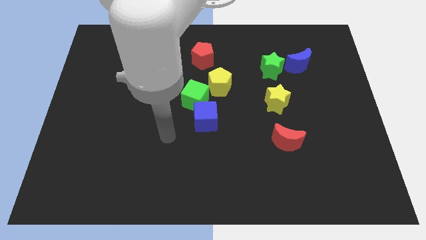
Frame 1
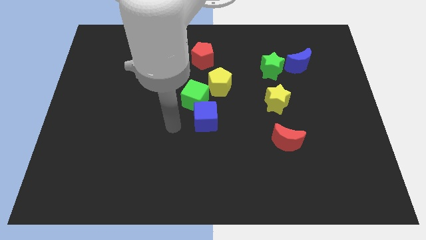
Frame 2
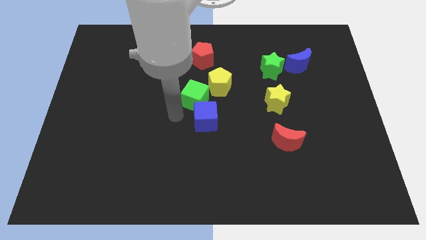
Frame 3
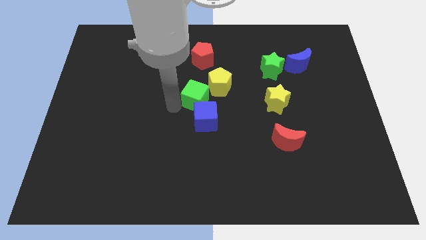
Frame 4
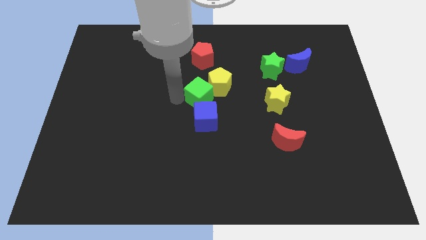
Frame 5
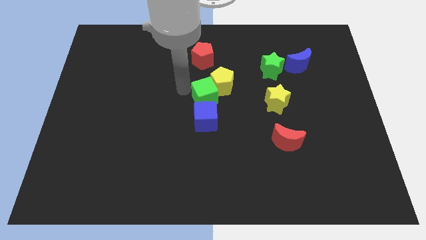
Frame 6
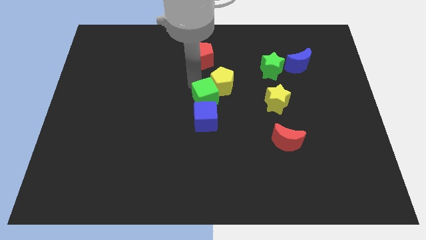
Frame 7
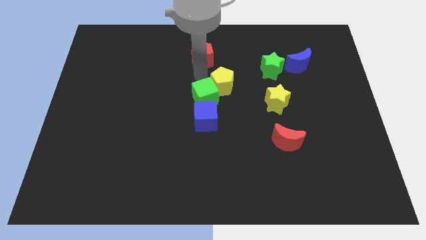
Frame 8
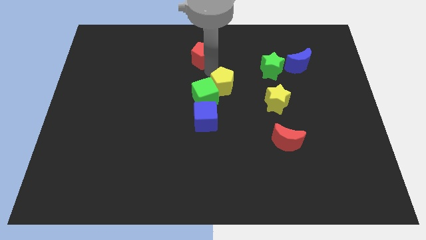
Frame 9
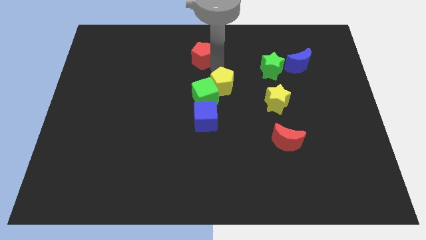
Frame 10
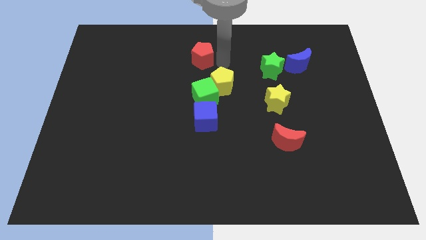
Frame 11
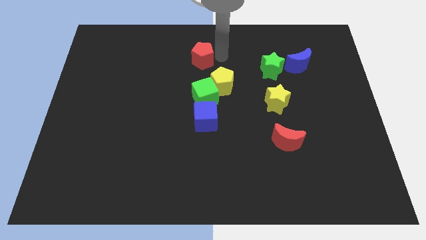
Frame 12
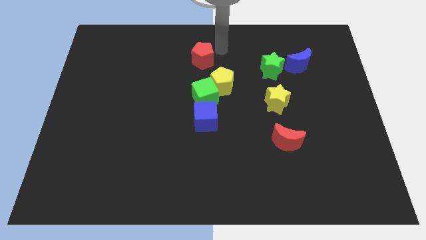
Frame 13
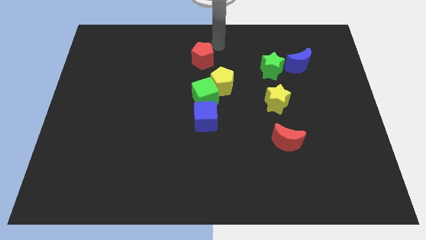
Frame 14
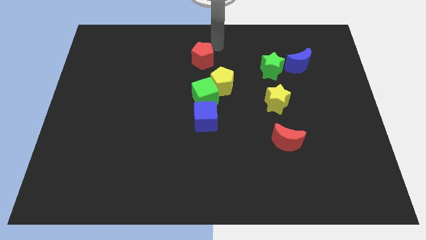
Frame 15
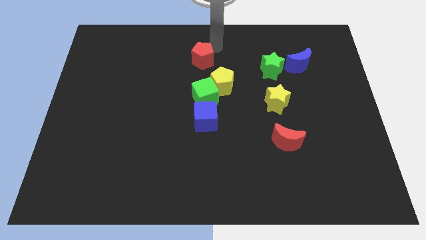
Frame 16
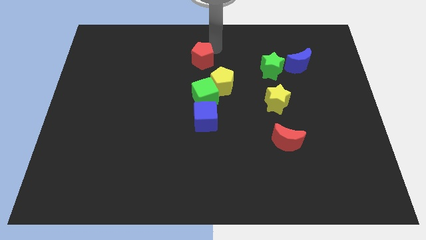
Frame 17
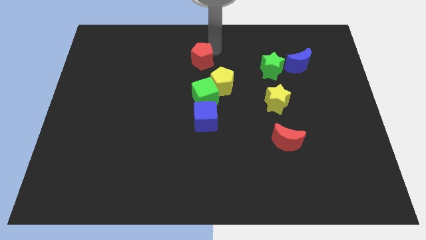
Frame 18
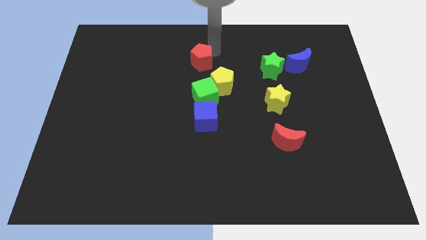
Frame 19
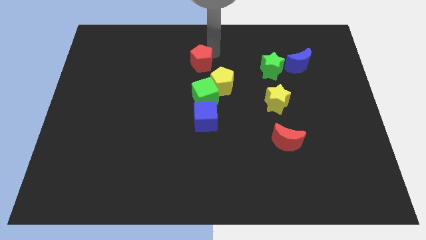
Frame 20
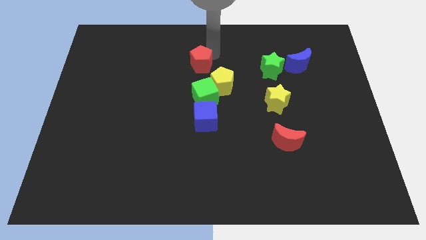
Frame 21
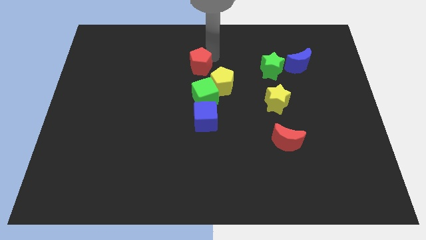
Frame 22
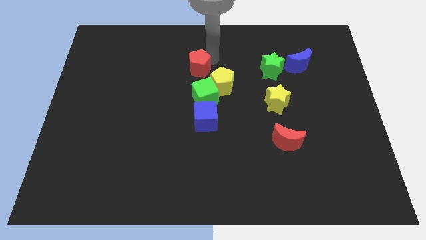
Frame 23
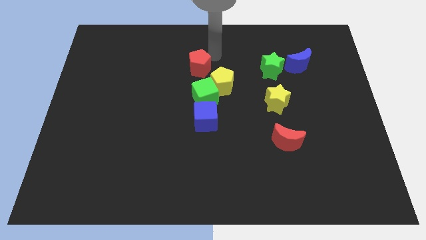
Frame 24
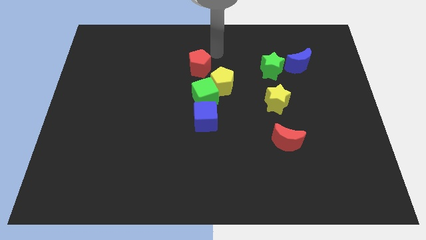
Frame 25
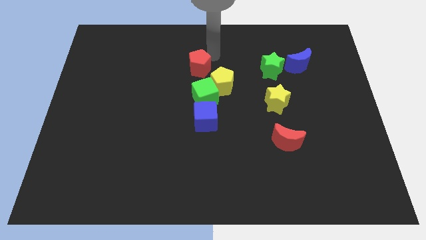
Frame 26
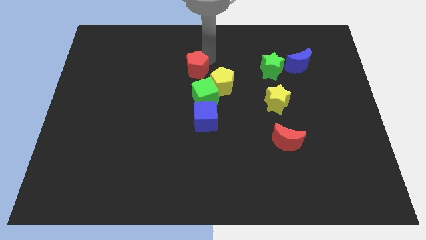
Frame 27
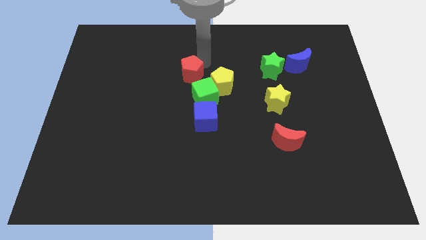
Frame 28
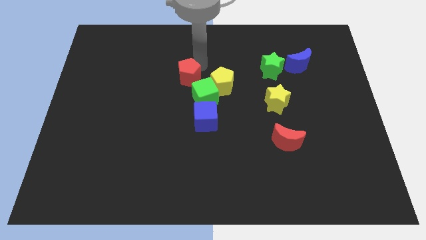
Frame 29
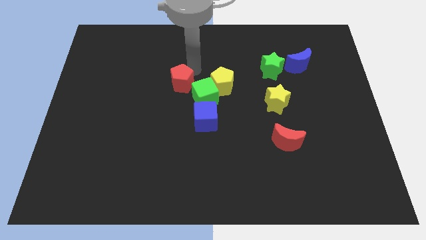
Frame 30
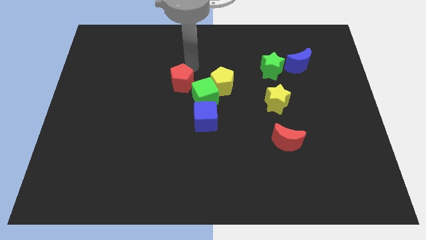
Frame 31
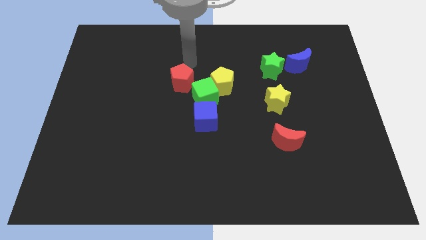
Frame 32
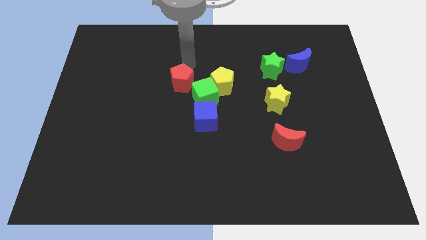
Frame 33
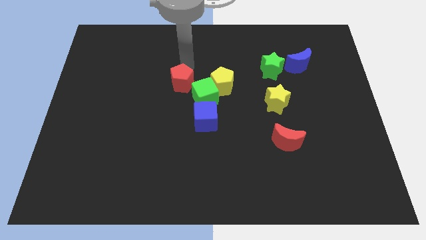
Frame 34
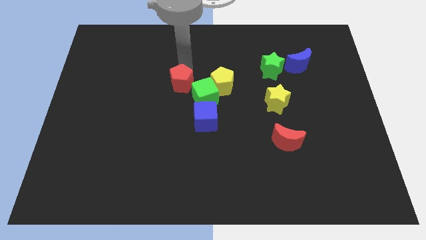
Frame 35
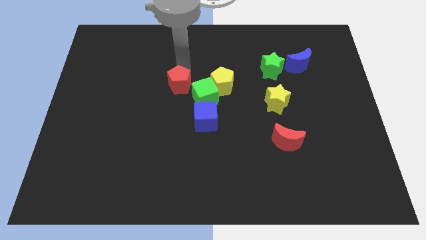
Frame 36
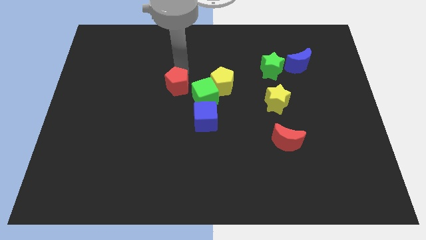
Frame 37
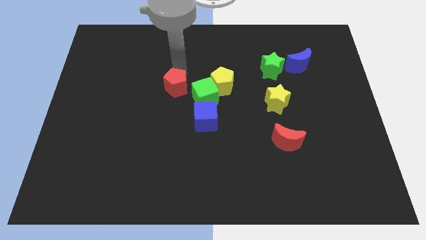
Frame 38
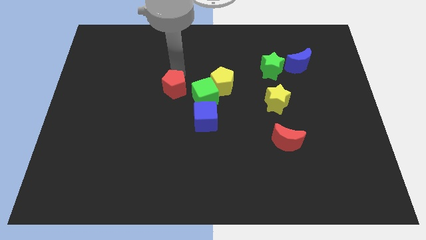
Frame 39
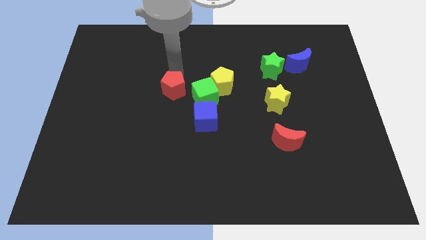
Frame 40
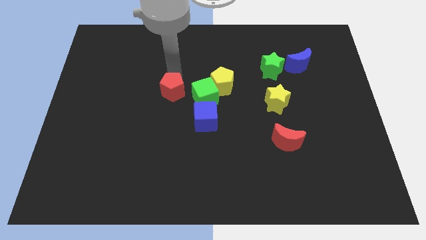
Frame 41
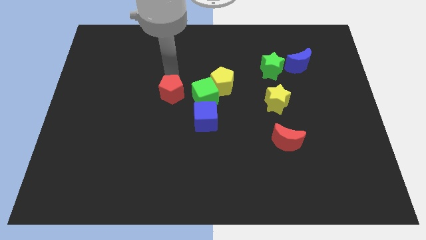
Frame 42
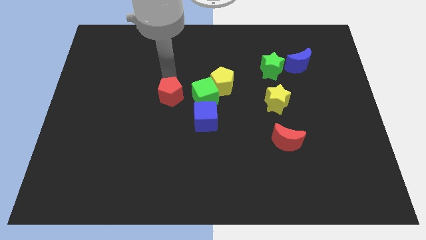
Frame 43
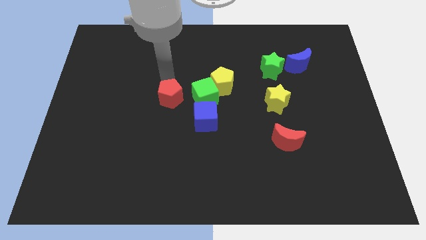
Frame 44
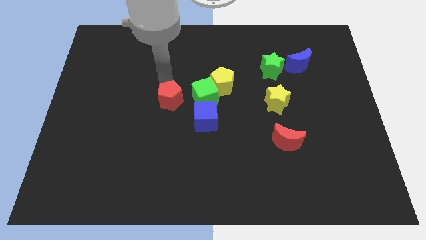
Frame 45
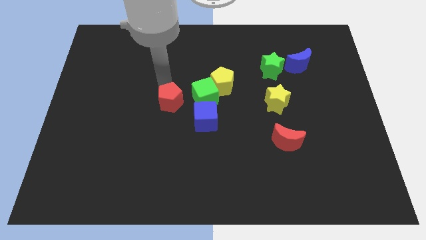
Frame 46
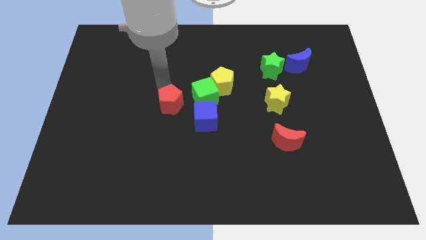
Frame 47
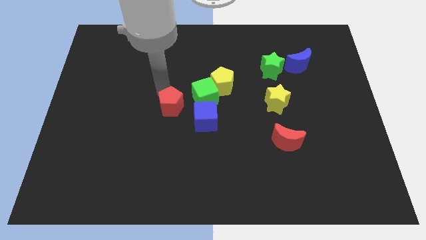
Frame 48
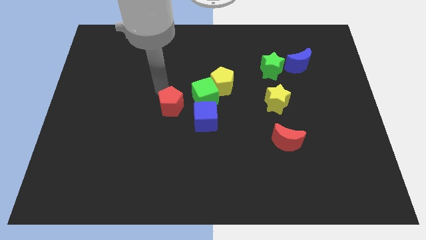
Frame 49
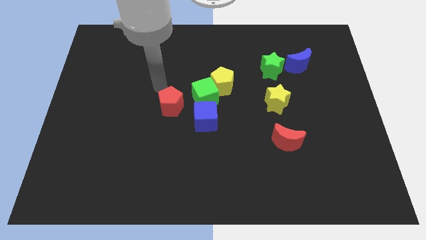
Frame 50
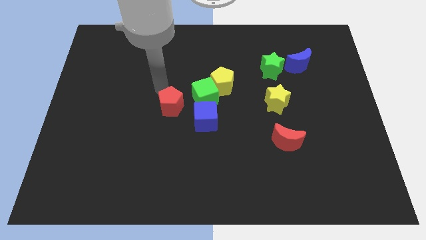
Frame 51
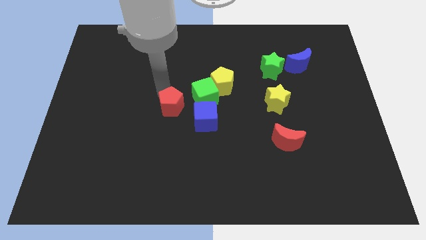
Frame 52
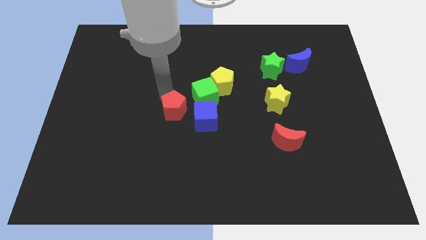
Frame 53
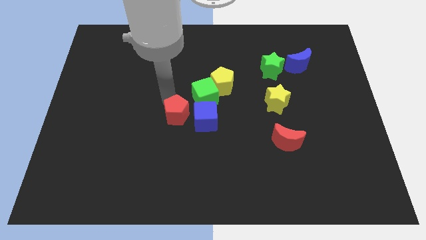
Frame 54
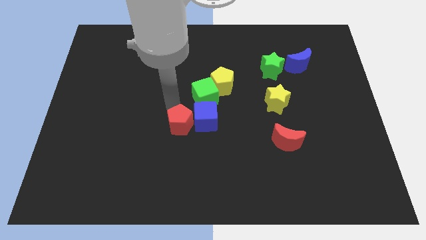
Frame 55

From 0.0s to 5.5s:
slide the red pentagon down

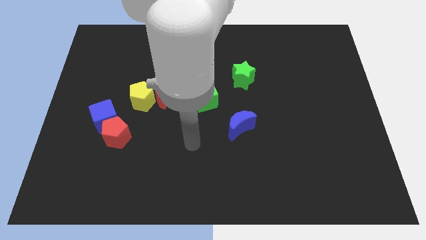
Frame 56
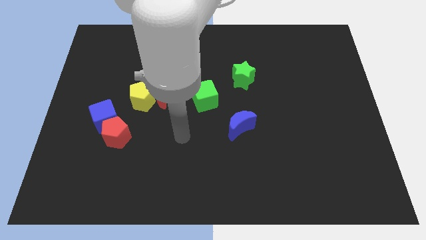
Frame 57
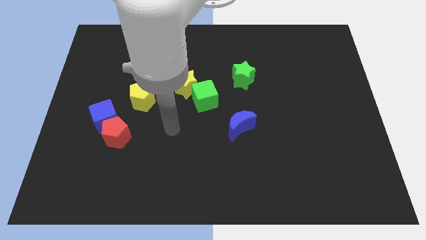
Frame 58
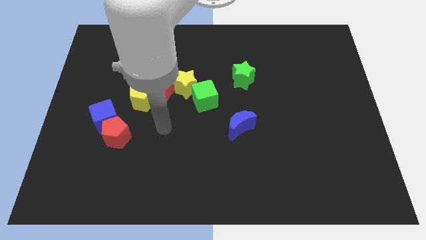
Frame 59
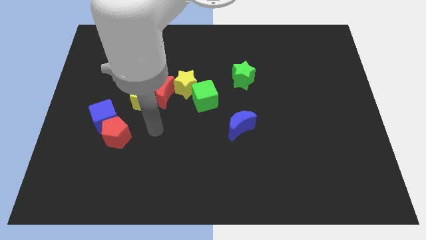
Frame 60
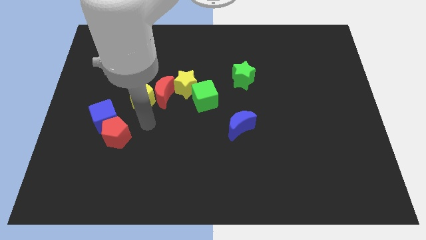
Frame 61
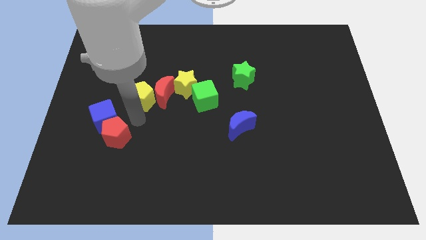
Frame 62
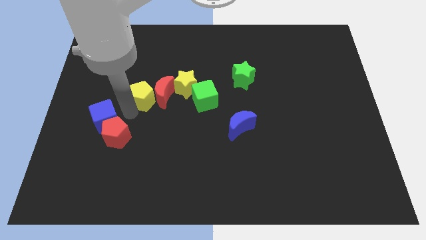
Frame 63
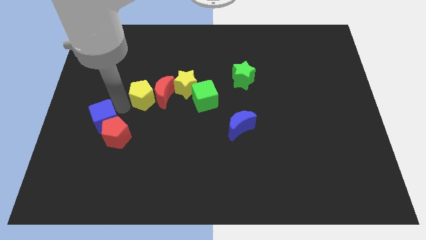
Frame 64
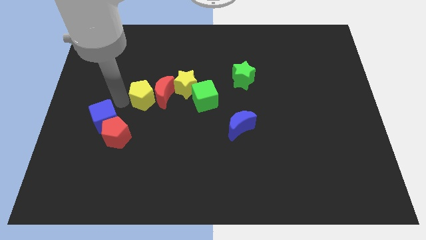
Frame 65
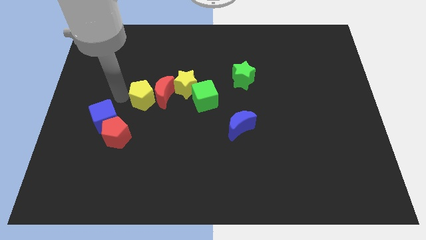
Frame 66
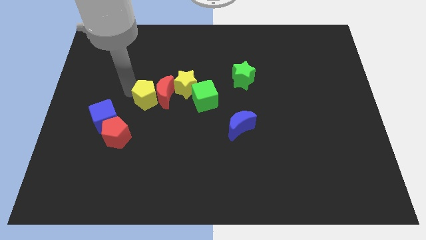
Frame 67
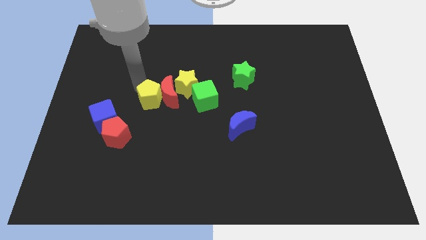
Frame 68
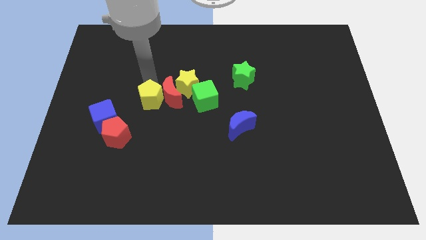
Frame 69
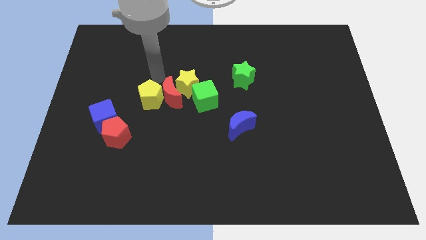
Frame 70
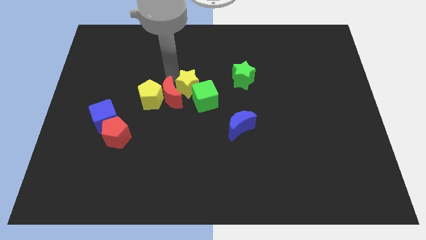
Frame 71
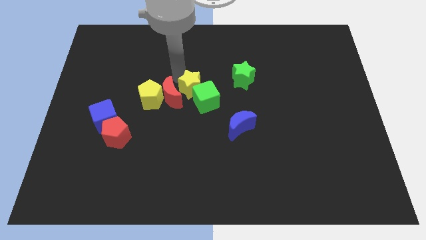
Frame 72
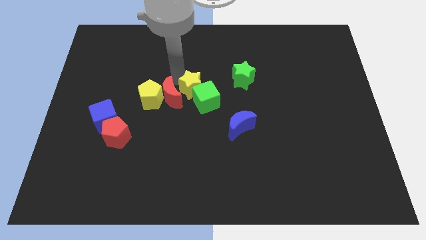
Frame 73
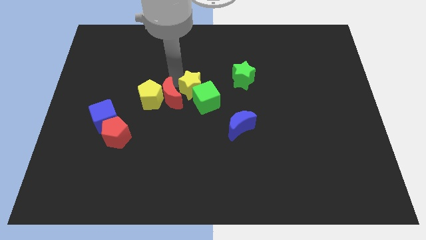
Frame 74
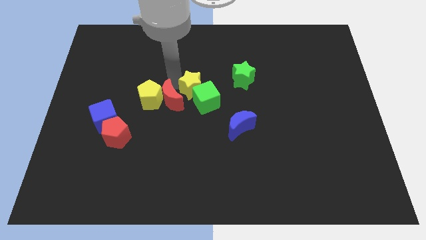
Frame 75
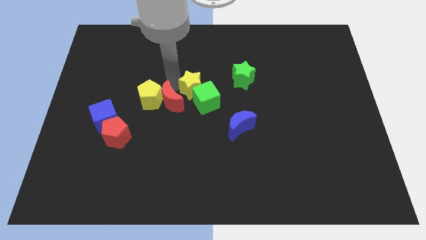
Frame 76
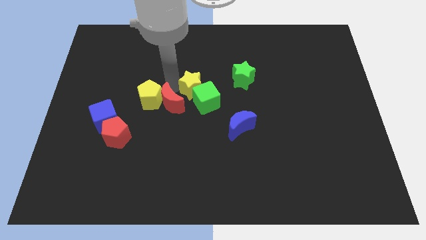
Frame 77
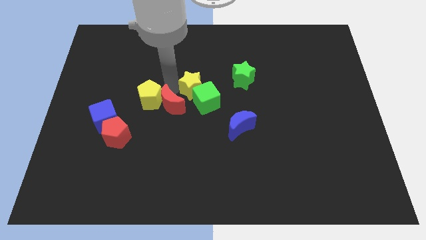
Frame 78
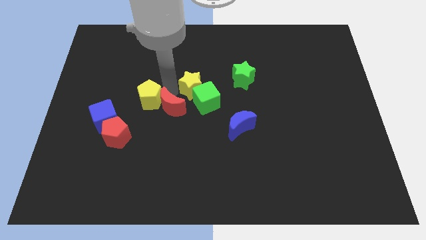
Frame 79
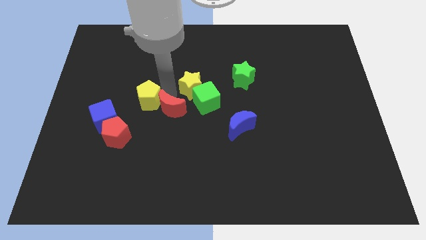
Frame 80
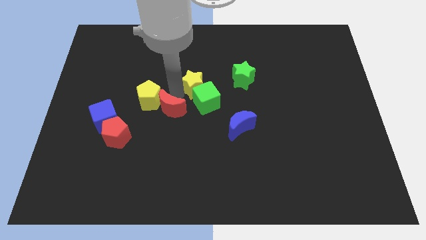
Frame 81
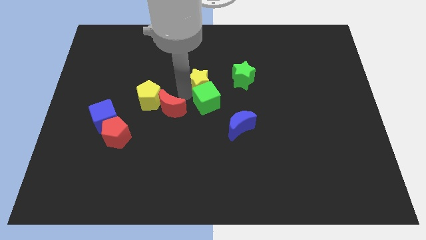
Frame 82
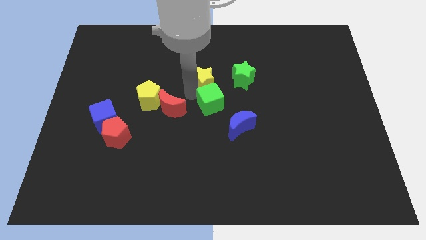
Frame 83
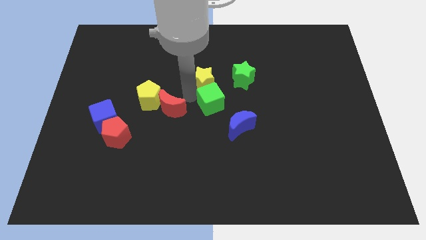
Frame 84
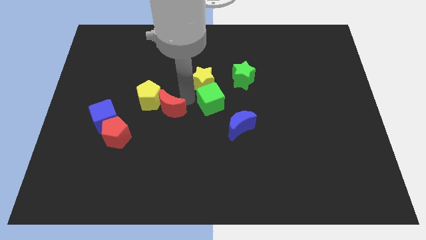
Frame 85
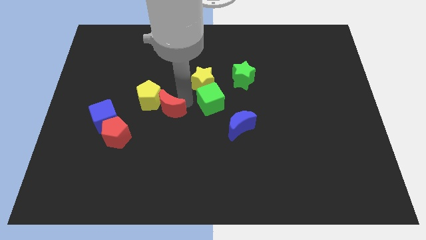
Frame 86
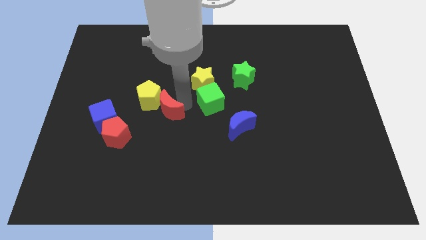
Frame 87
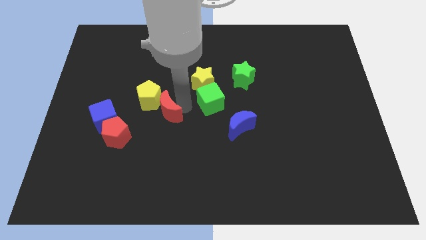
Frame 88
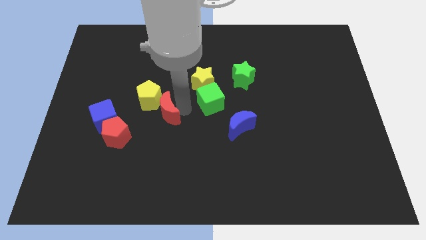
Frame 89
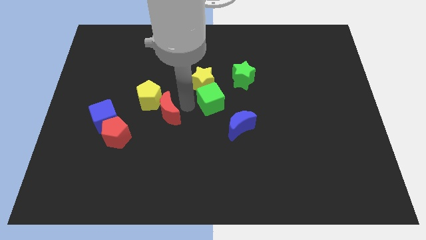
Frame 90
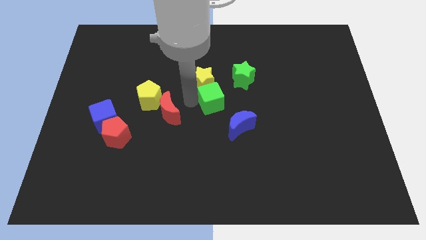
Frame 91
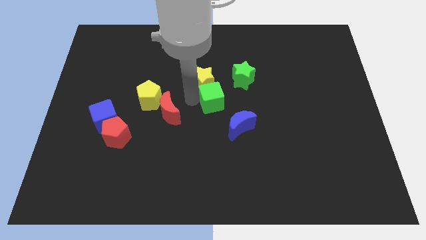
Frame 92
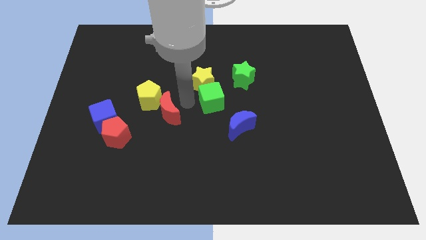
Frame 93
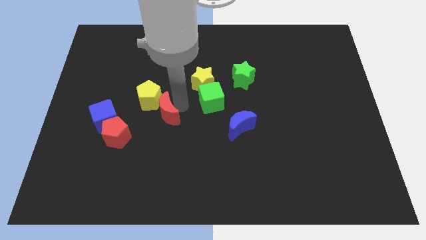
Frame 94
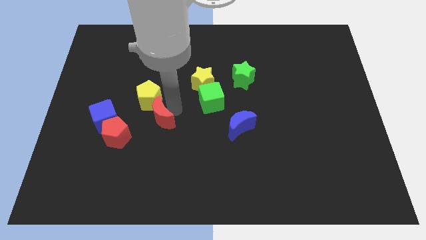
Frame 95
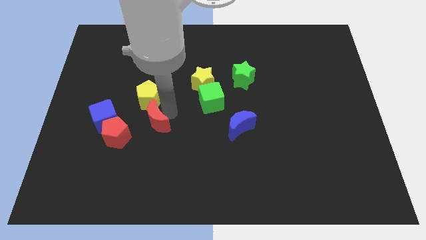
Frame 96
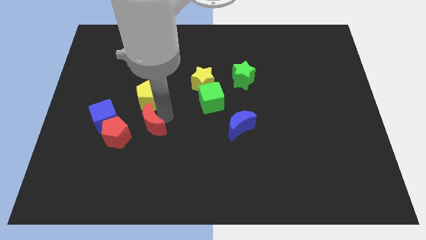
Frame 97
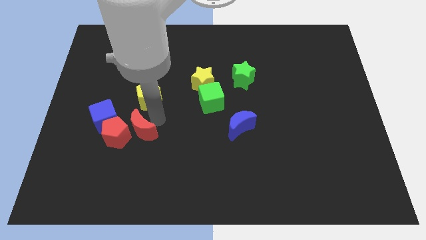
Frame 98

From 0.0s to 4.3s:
slightly move the red moon diagonally downwards and left
